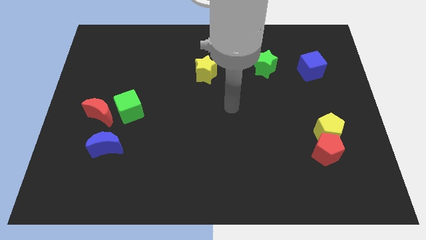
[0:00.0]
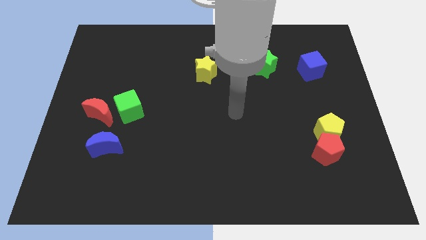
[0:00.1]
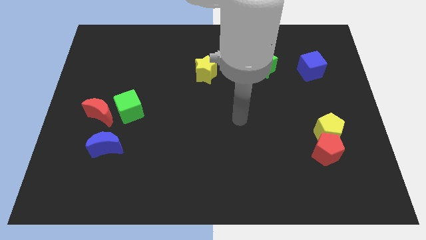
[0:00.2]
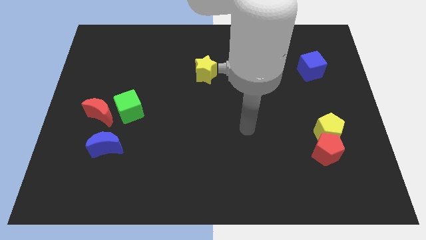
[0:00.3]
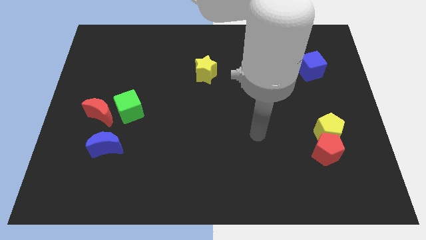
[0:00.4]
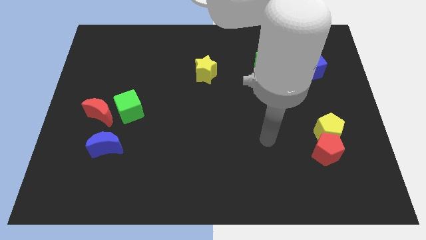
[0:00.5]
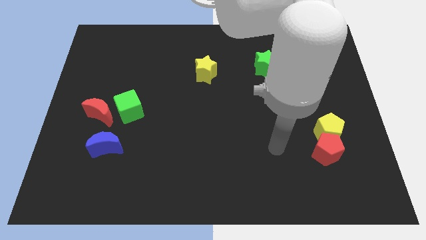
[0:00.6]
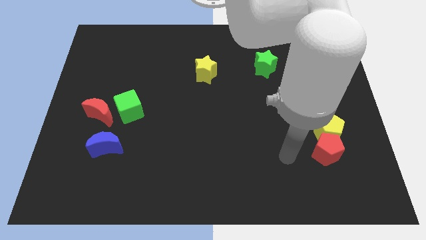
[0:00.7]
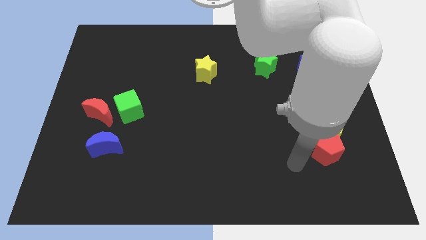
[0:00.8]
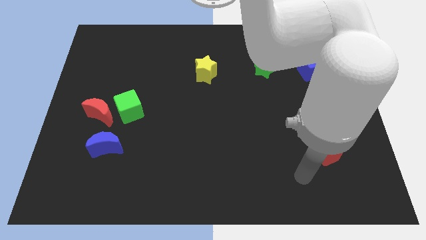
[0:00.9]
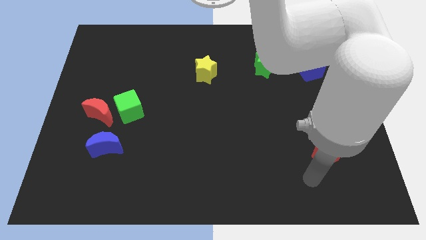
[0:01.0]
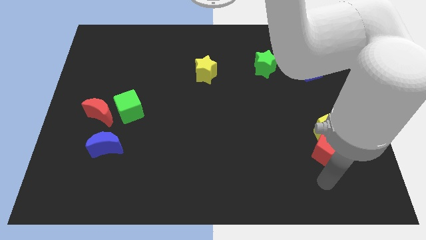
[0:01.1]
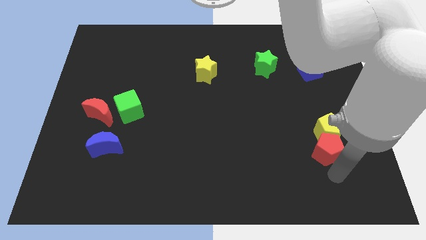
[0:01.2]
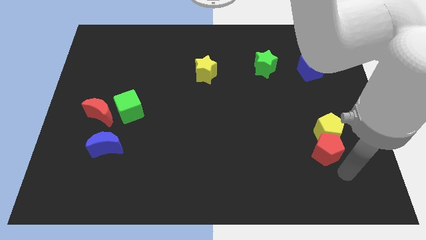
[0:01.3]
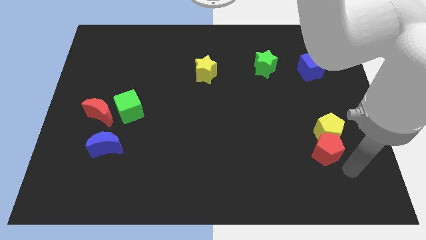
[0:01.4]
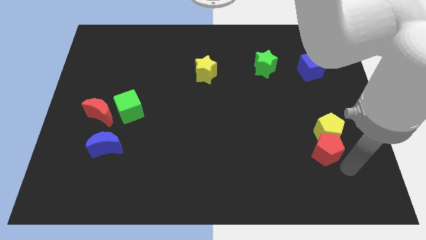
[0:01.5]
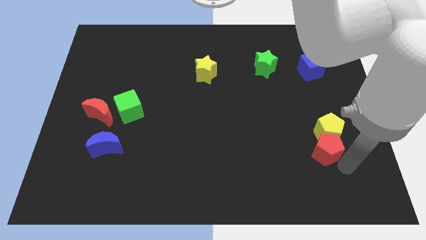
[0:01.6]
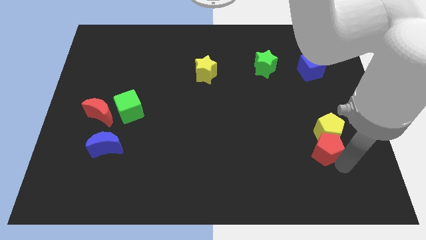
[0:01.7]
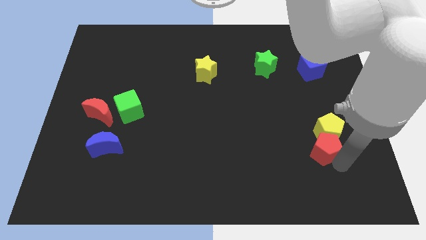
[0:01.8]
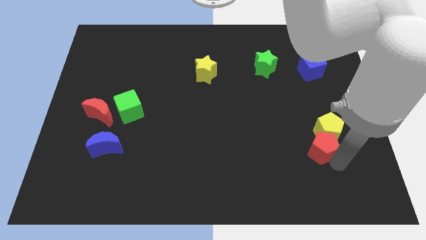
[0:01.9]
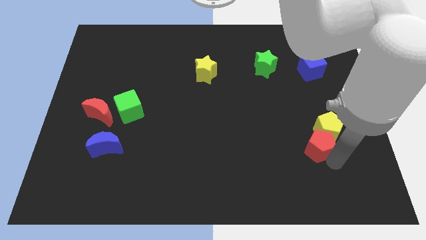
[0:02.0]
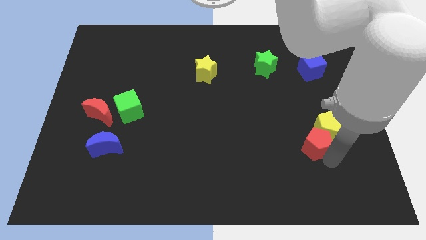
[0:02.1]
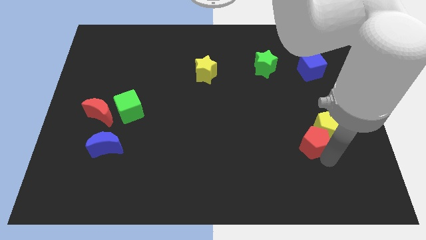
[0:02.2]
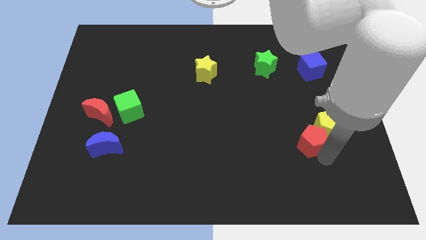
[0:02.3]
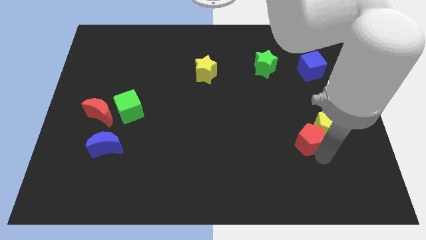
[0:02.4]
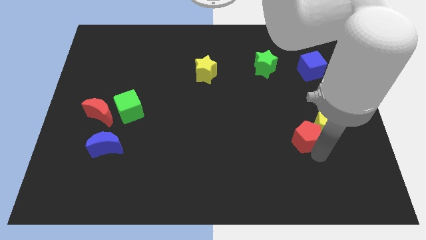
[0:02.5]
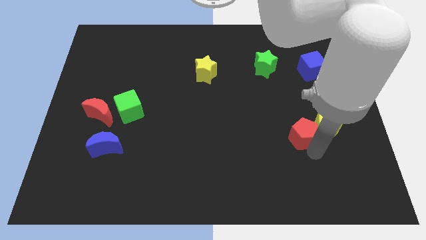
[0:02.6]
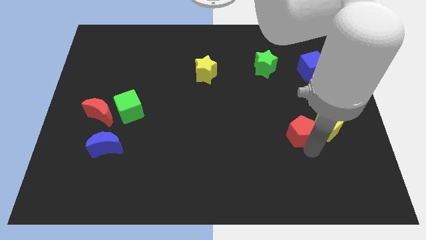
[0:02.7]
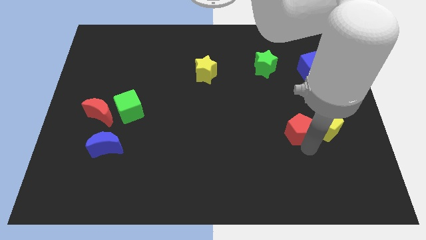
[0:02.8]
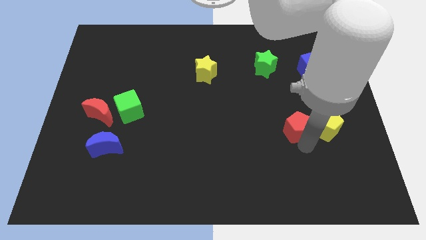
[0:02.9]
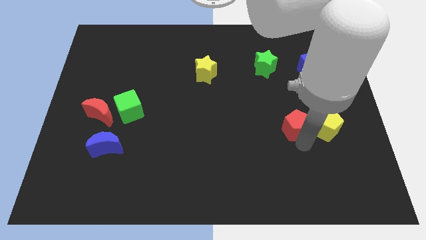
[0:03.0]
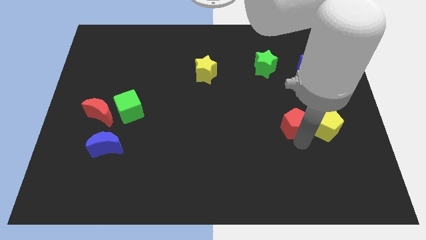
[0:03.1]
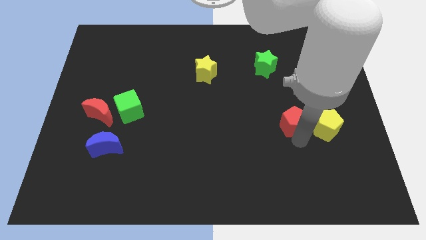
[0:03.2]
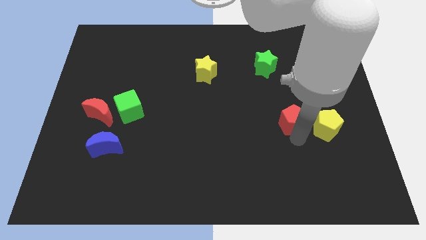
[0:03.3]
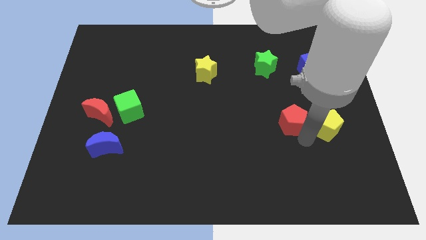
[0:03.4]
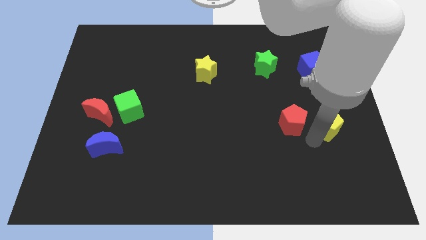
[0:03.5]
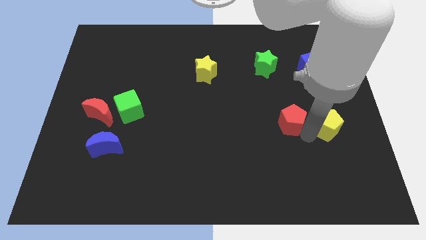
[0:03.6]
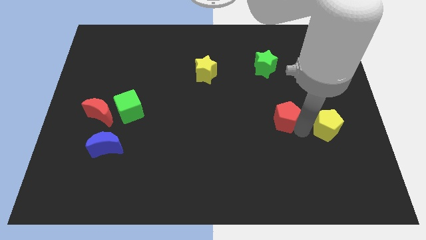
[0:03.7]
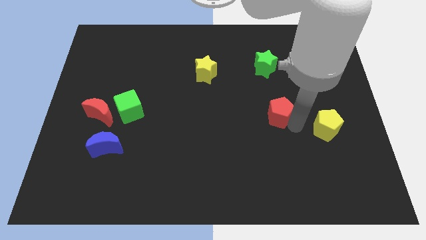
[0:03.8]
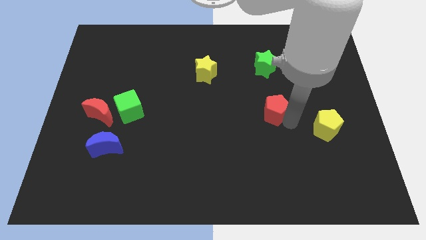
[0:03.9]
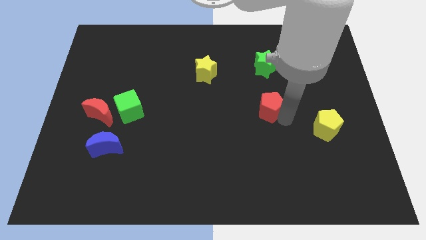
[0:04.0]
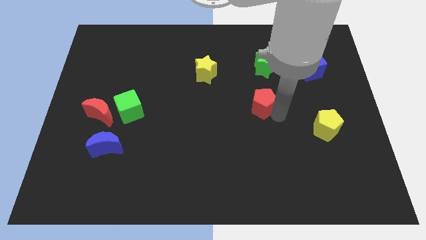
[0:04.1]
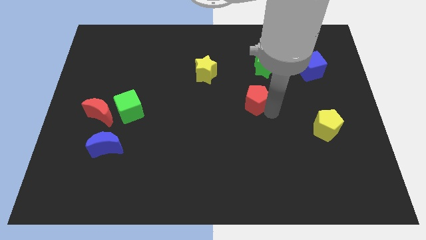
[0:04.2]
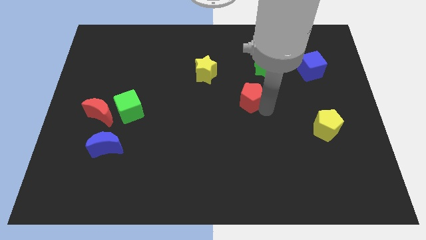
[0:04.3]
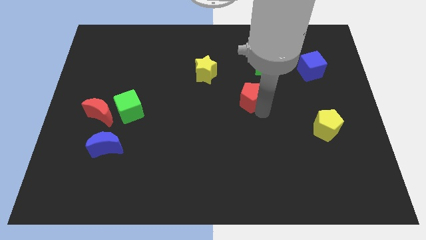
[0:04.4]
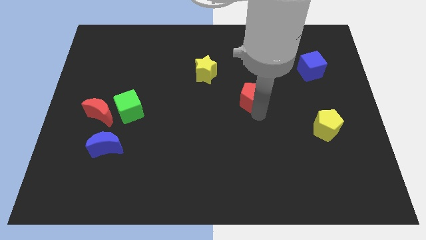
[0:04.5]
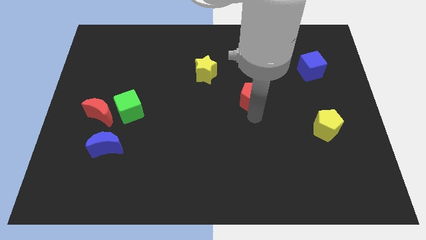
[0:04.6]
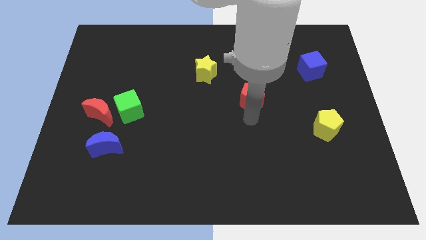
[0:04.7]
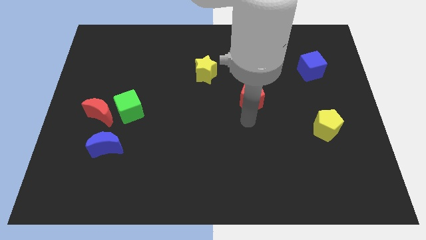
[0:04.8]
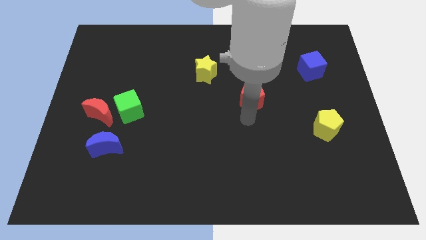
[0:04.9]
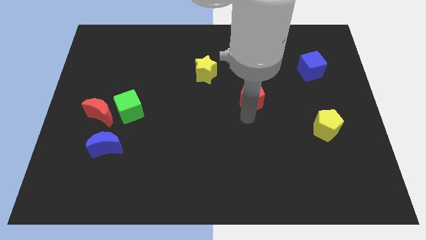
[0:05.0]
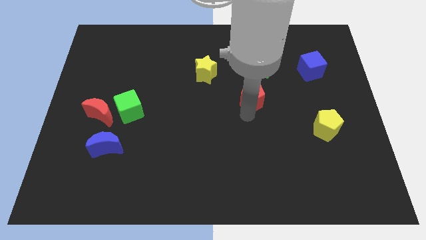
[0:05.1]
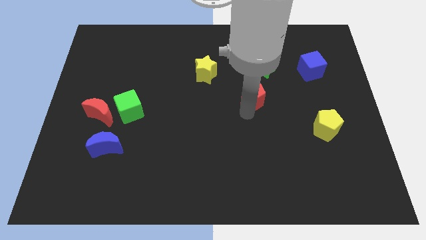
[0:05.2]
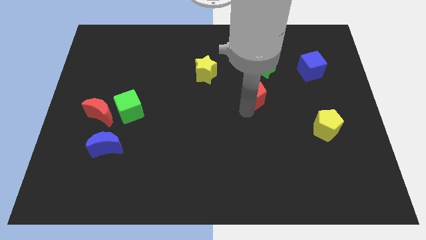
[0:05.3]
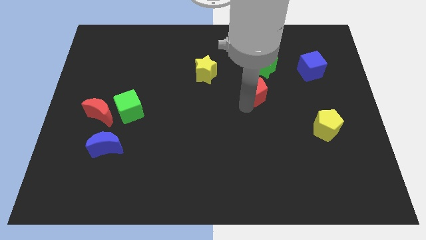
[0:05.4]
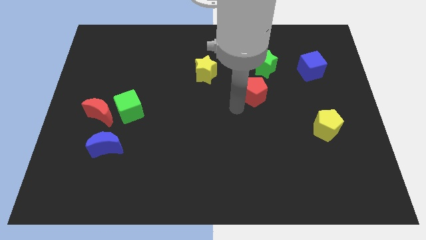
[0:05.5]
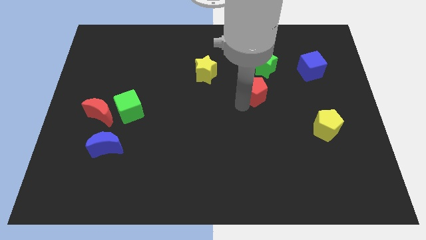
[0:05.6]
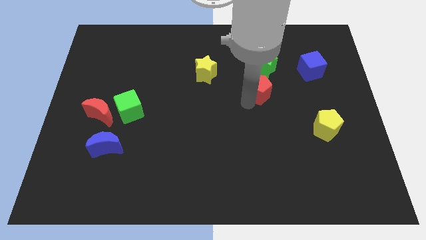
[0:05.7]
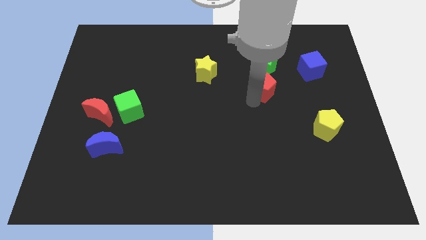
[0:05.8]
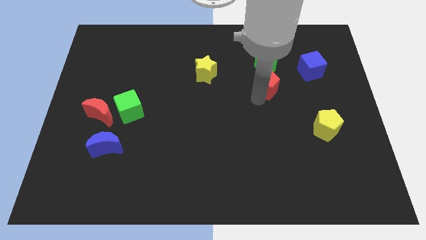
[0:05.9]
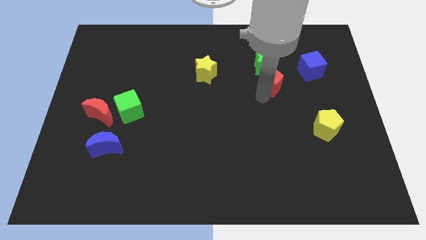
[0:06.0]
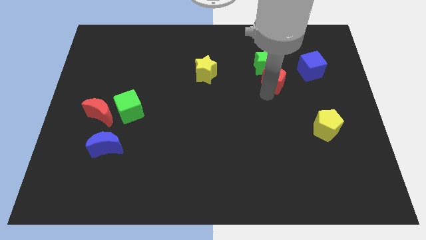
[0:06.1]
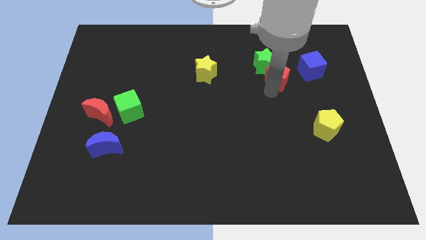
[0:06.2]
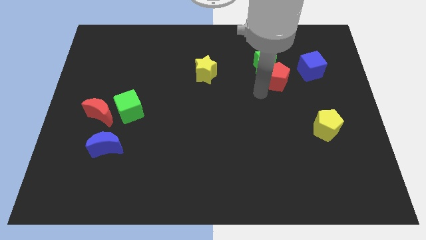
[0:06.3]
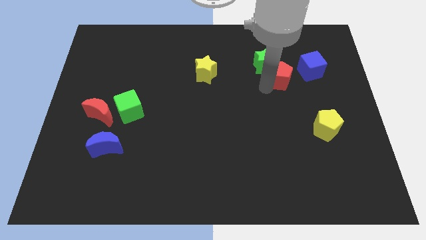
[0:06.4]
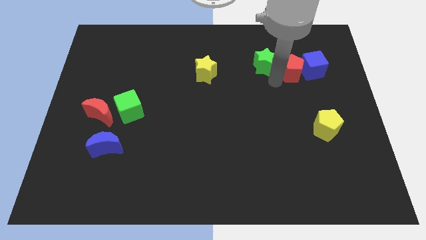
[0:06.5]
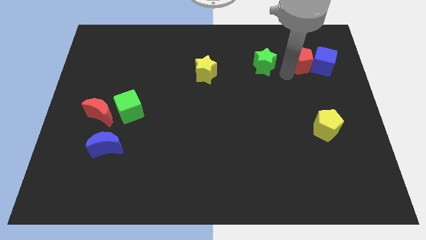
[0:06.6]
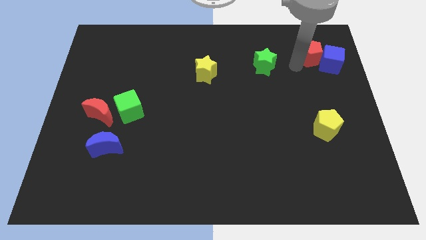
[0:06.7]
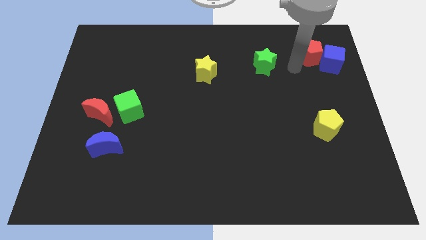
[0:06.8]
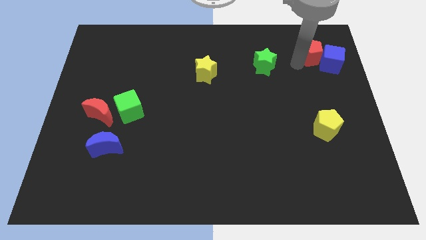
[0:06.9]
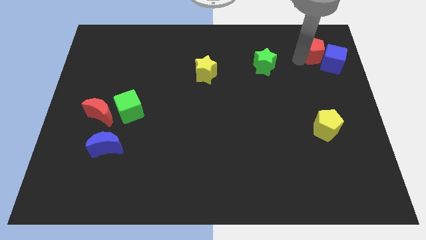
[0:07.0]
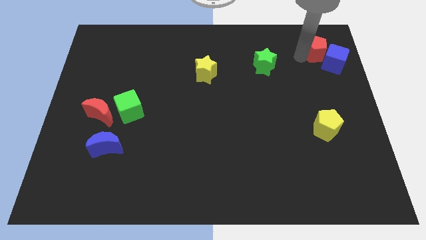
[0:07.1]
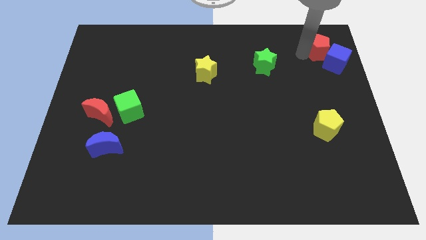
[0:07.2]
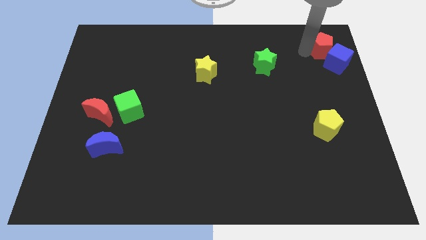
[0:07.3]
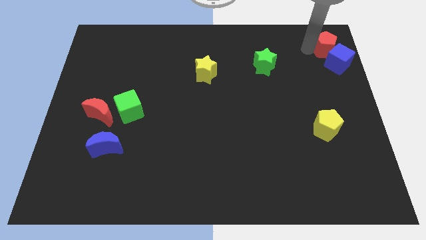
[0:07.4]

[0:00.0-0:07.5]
slide the red pentagon to the top right
